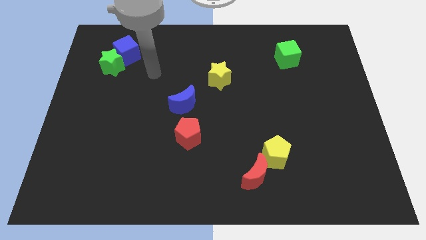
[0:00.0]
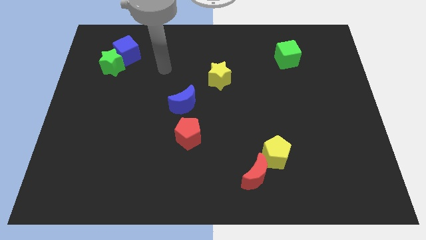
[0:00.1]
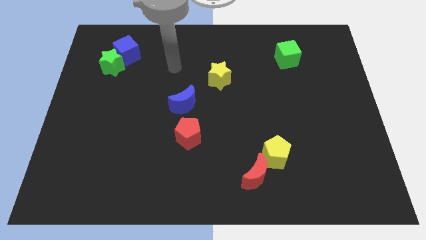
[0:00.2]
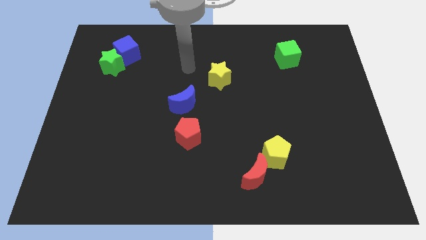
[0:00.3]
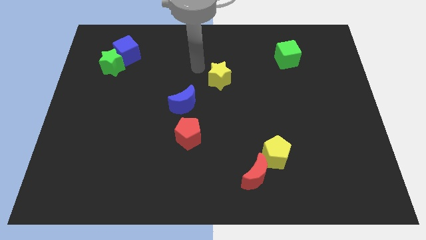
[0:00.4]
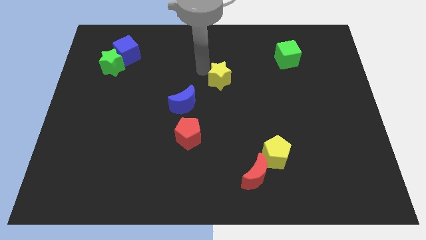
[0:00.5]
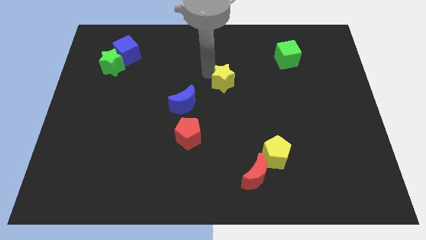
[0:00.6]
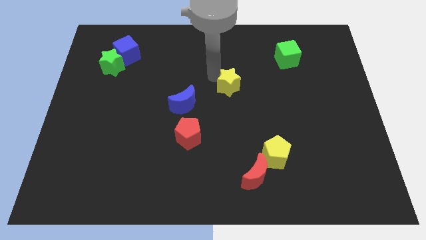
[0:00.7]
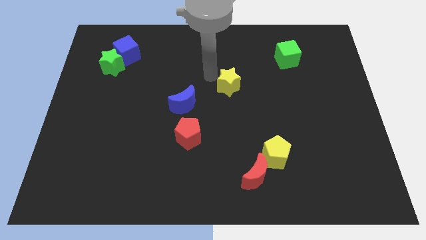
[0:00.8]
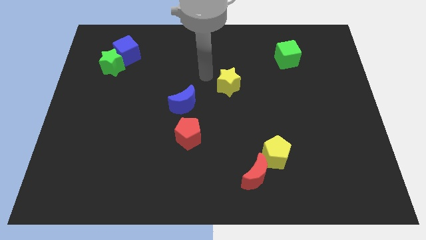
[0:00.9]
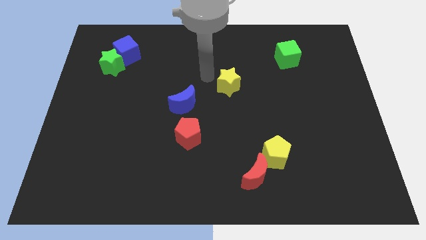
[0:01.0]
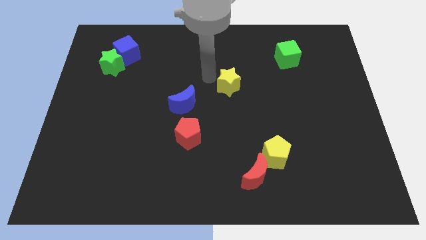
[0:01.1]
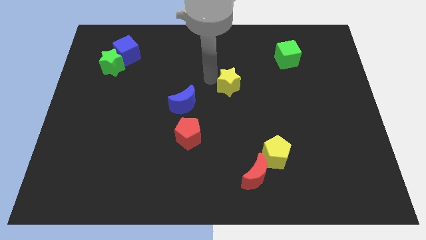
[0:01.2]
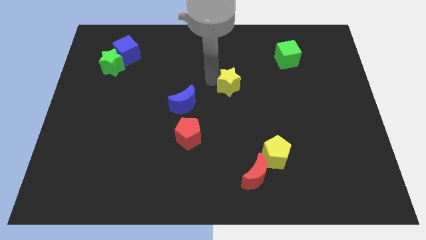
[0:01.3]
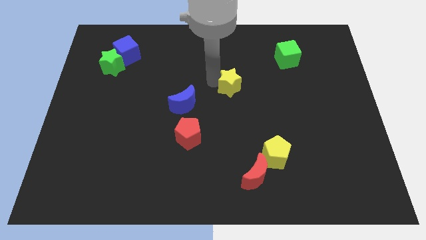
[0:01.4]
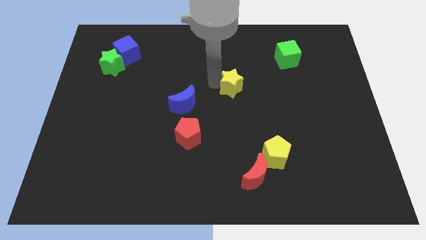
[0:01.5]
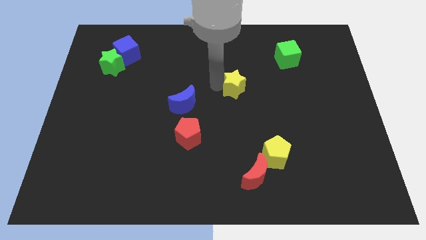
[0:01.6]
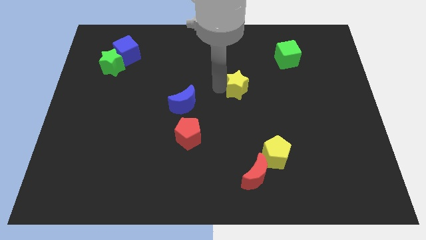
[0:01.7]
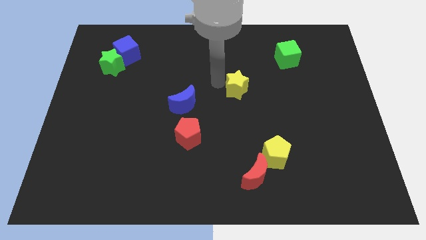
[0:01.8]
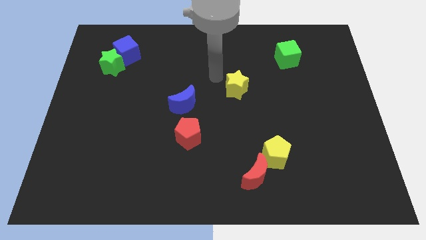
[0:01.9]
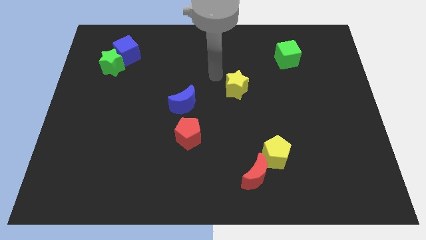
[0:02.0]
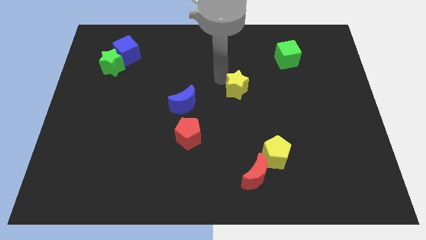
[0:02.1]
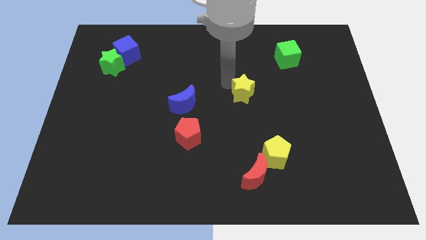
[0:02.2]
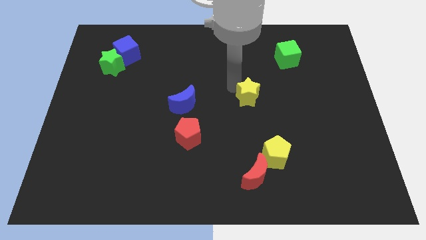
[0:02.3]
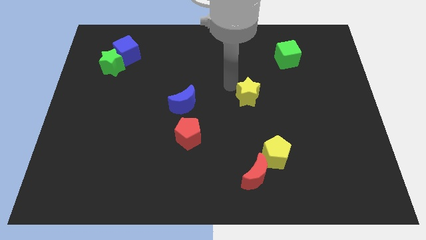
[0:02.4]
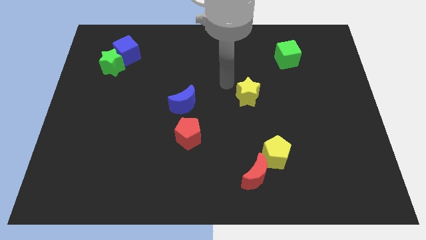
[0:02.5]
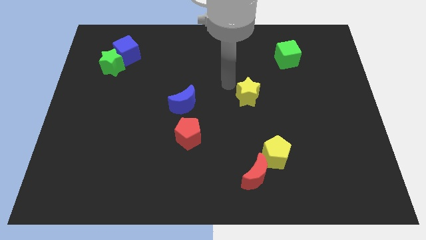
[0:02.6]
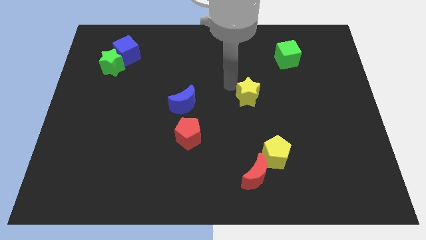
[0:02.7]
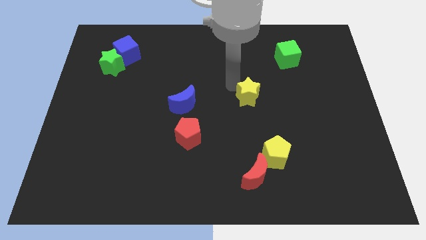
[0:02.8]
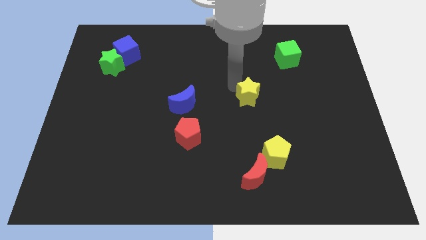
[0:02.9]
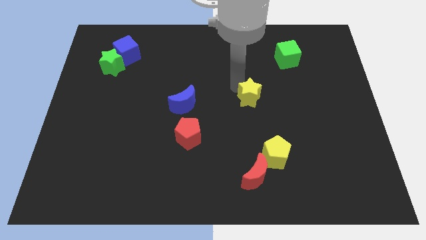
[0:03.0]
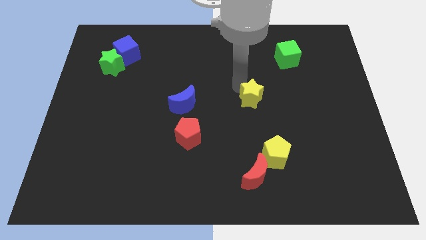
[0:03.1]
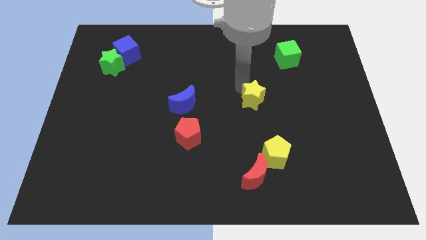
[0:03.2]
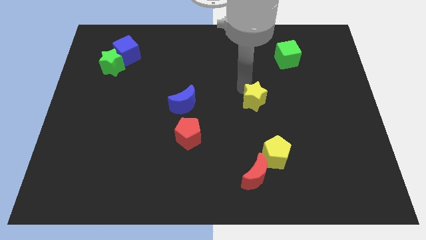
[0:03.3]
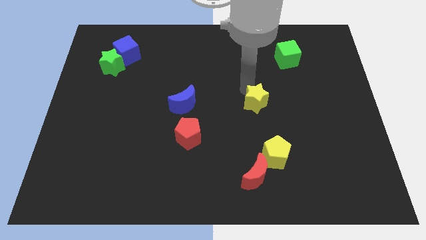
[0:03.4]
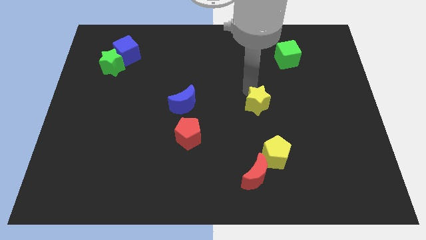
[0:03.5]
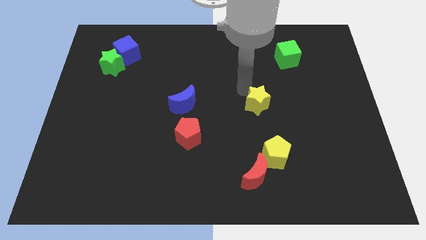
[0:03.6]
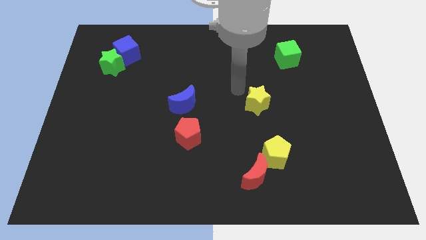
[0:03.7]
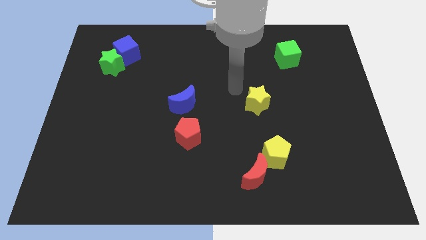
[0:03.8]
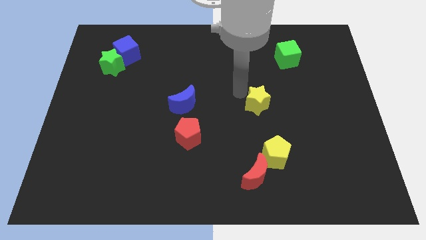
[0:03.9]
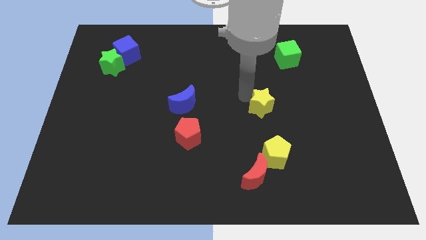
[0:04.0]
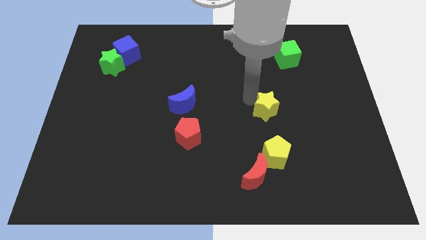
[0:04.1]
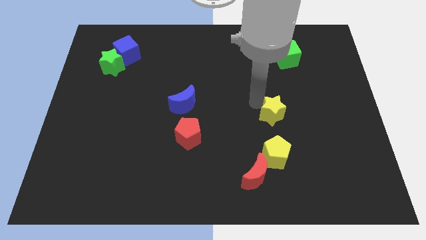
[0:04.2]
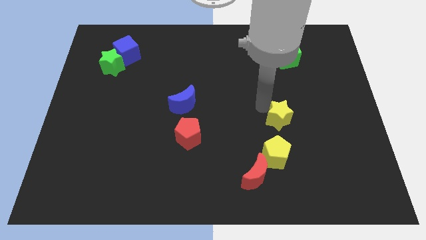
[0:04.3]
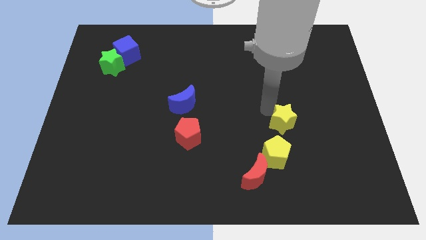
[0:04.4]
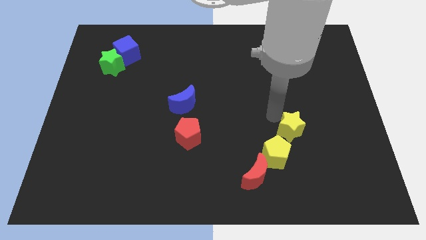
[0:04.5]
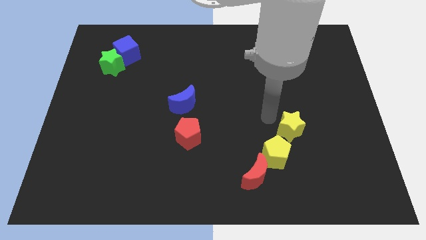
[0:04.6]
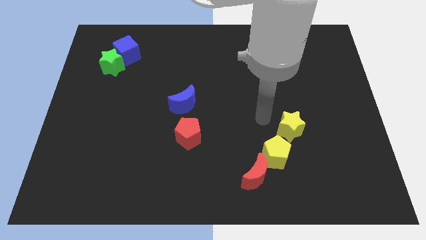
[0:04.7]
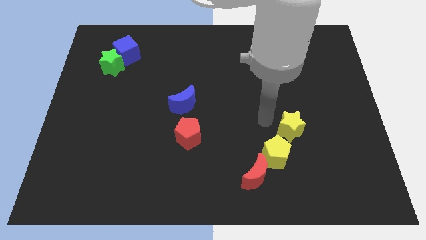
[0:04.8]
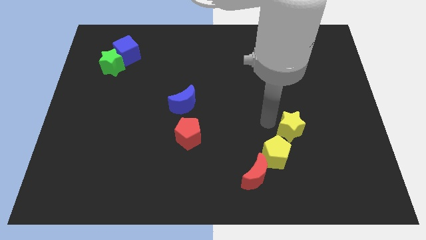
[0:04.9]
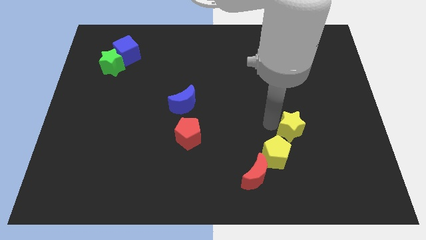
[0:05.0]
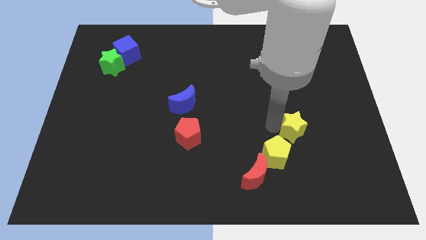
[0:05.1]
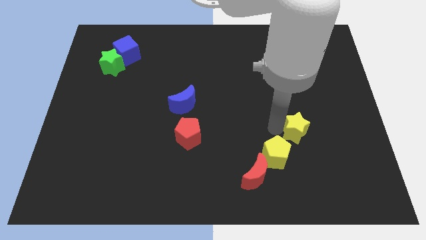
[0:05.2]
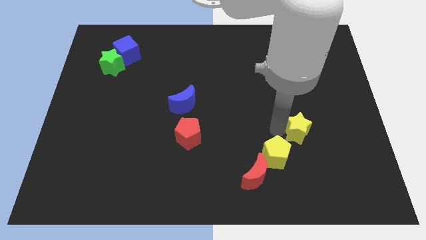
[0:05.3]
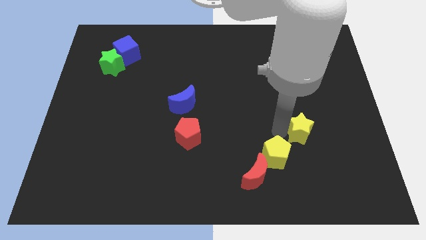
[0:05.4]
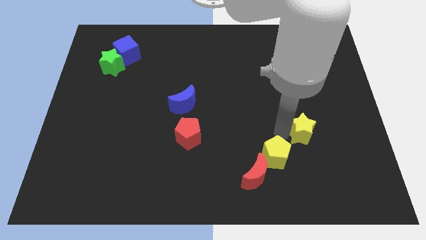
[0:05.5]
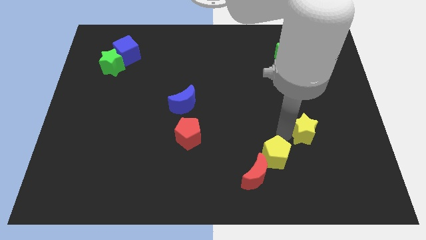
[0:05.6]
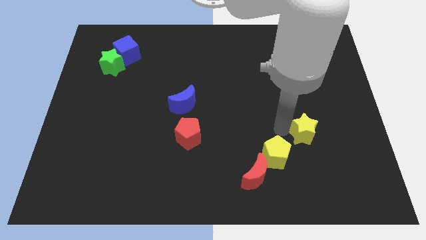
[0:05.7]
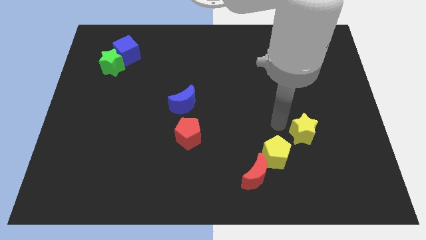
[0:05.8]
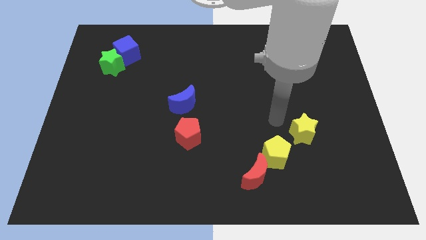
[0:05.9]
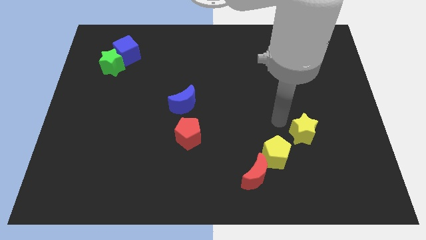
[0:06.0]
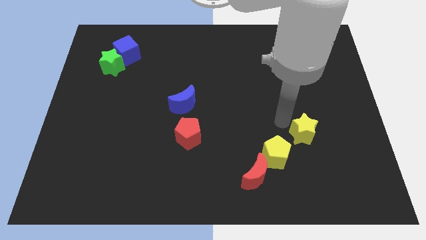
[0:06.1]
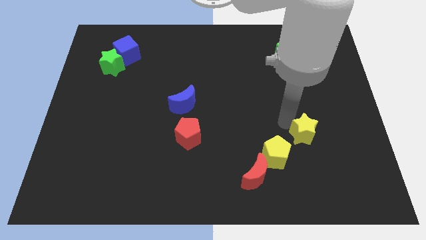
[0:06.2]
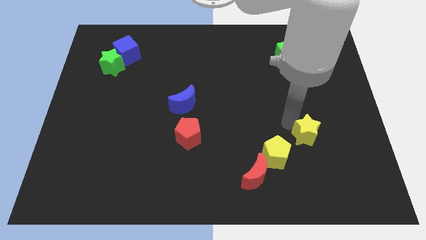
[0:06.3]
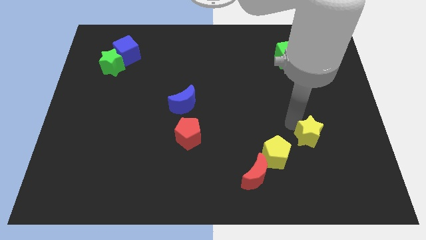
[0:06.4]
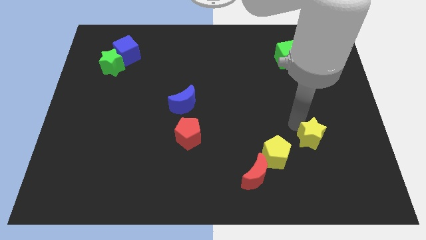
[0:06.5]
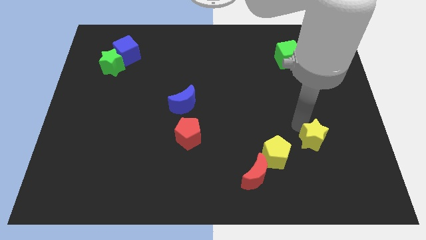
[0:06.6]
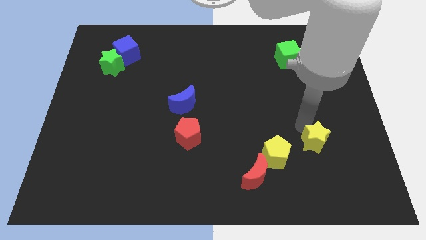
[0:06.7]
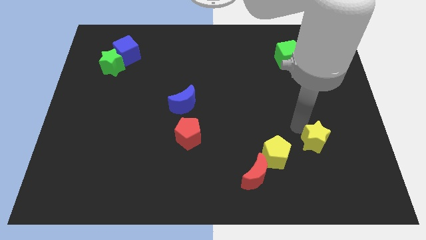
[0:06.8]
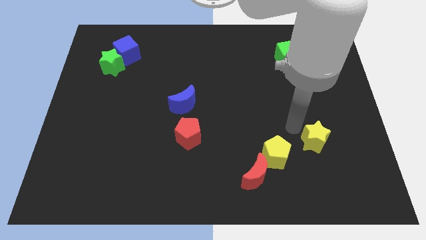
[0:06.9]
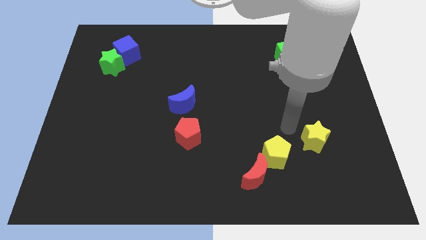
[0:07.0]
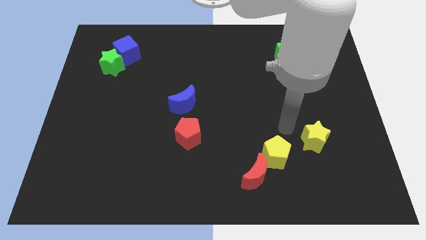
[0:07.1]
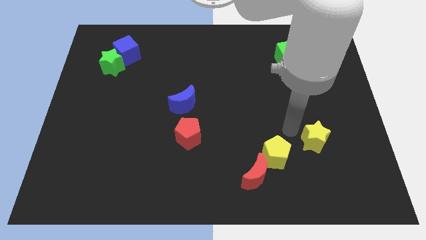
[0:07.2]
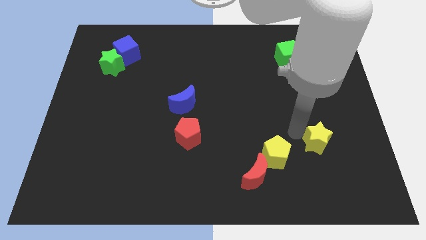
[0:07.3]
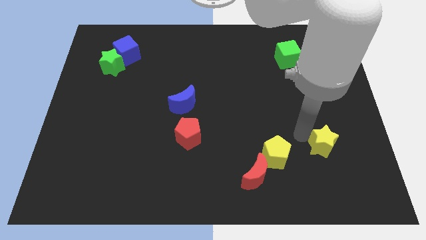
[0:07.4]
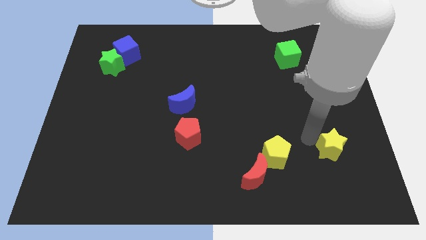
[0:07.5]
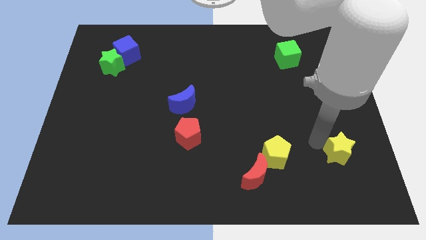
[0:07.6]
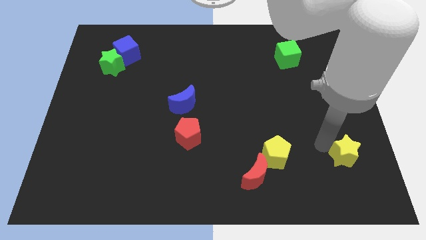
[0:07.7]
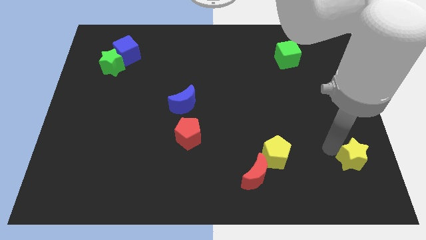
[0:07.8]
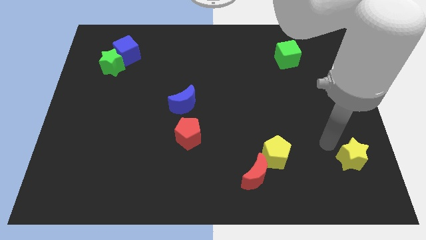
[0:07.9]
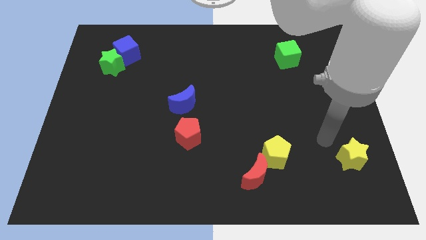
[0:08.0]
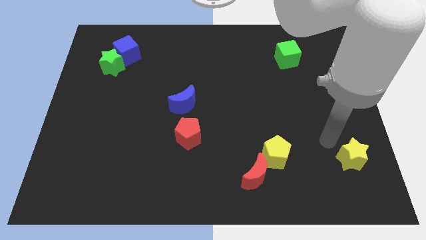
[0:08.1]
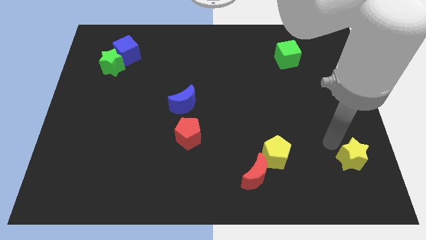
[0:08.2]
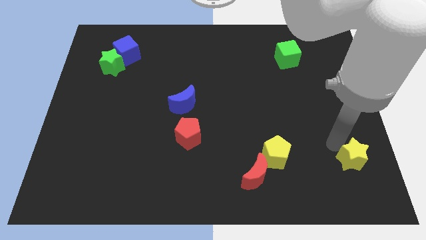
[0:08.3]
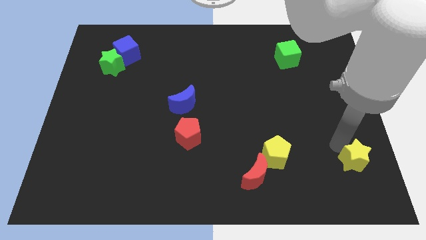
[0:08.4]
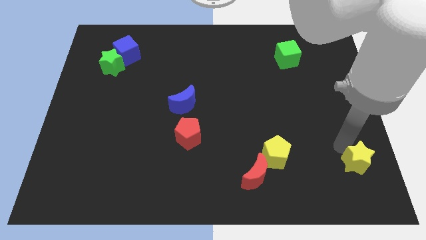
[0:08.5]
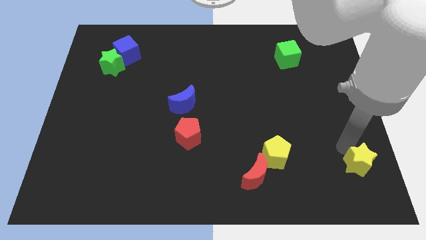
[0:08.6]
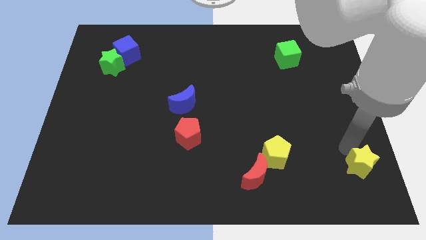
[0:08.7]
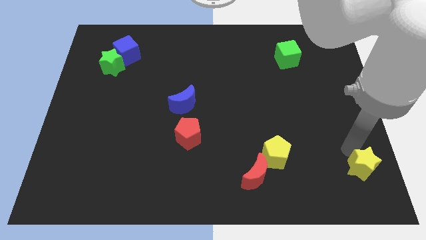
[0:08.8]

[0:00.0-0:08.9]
slide the yellow star to the bottom right
